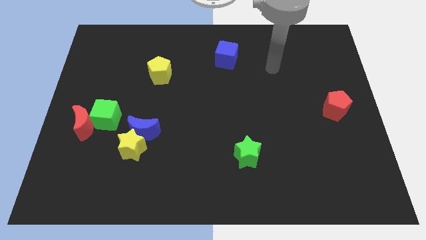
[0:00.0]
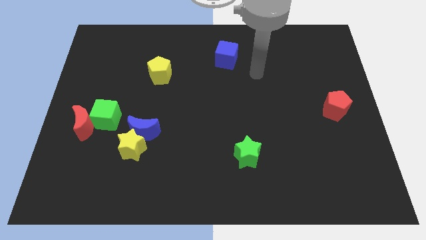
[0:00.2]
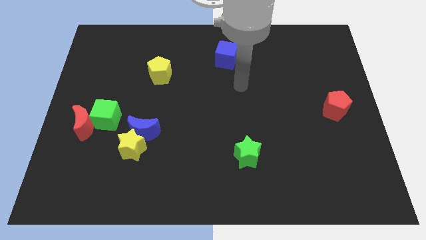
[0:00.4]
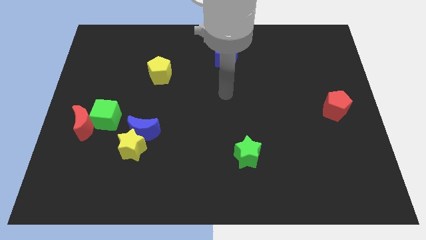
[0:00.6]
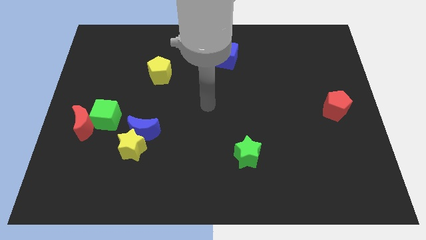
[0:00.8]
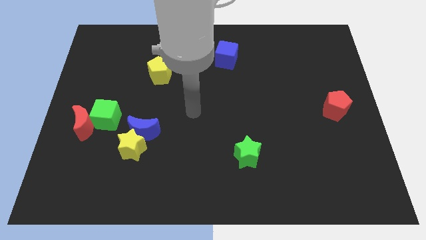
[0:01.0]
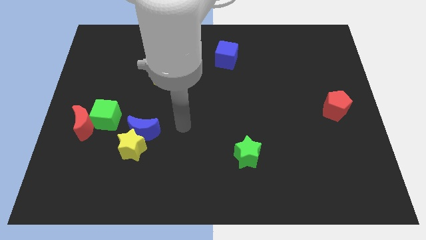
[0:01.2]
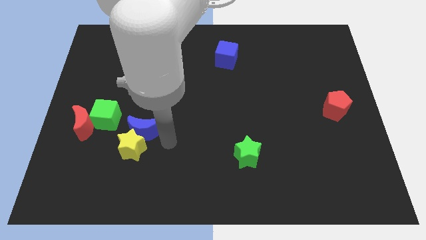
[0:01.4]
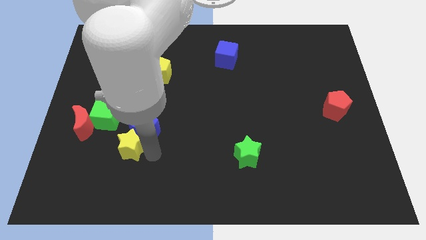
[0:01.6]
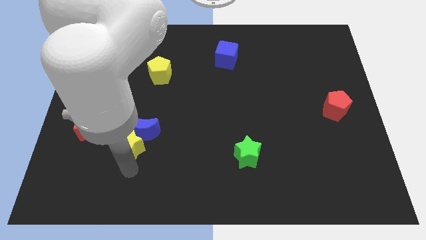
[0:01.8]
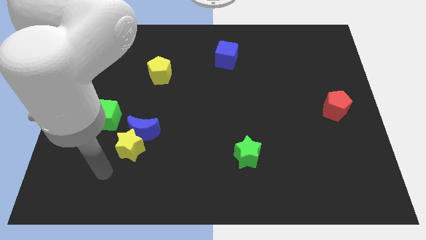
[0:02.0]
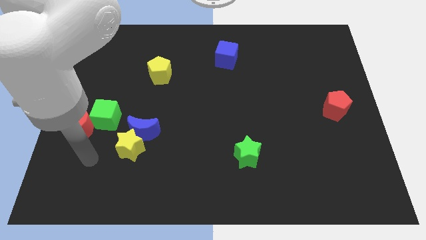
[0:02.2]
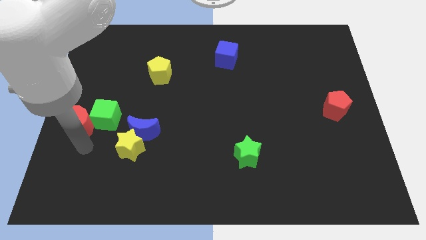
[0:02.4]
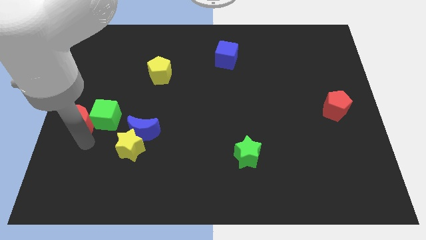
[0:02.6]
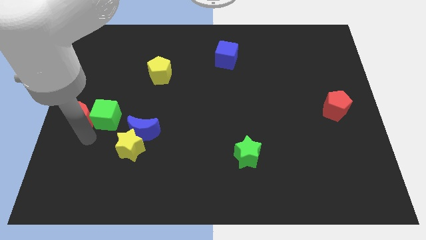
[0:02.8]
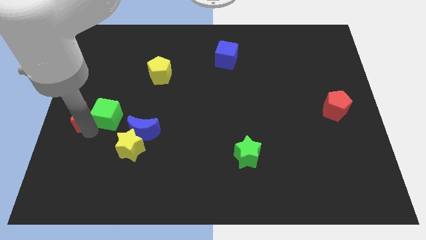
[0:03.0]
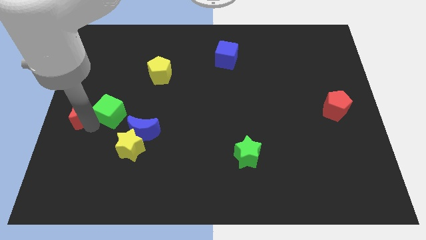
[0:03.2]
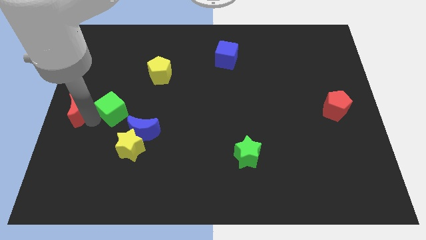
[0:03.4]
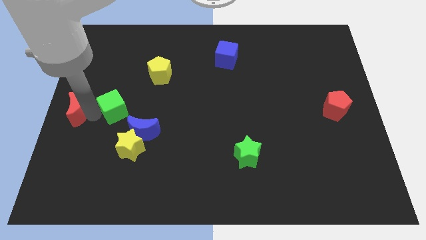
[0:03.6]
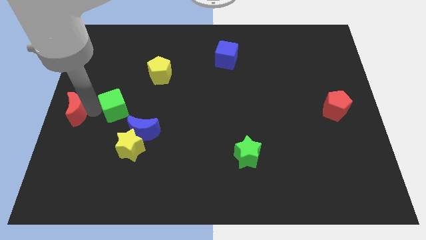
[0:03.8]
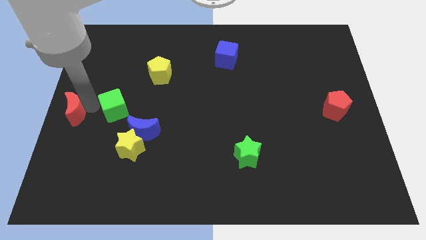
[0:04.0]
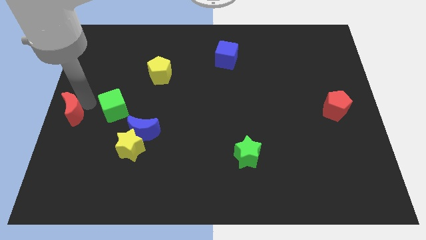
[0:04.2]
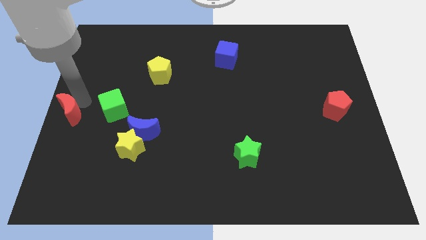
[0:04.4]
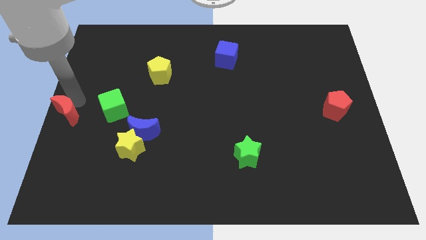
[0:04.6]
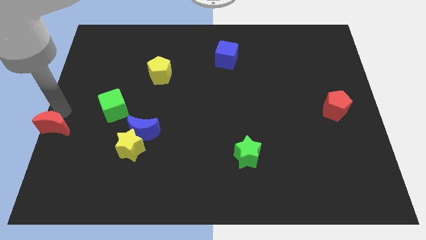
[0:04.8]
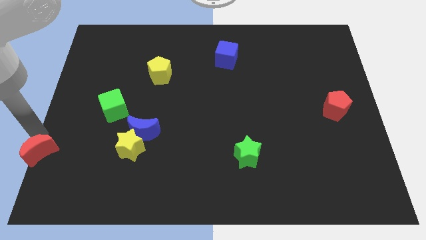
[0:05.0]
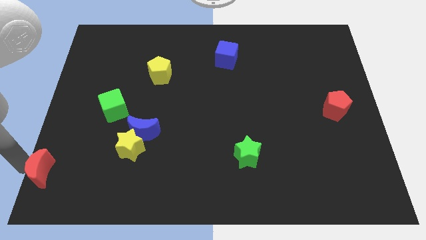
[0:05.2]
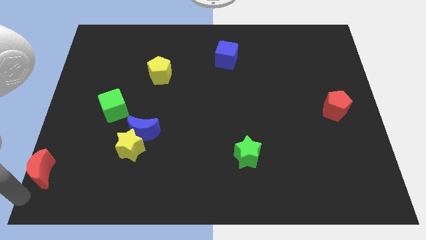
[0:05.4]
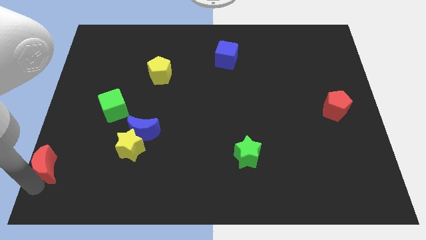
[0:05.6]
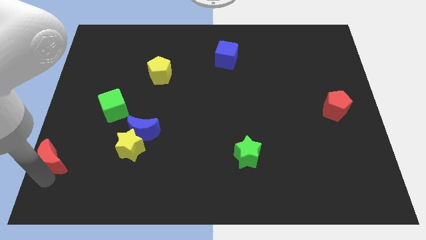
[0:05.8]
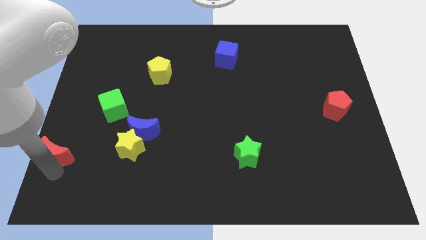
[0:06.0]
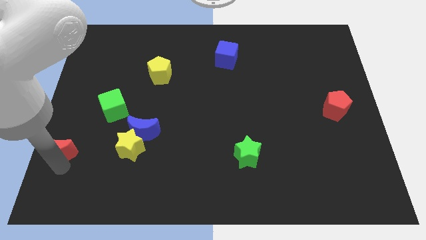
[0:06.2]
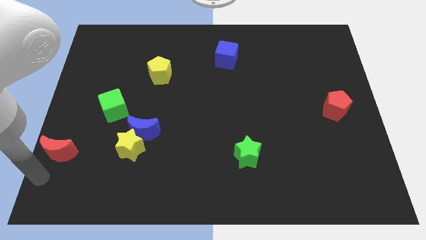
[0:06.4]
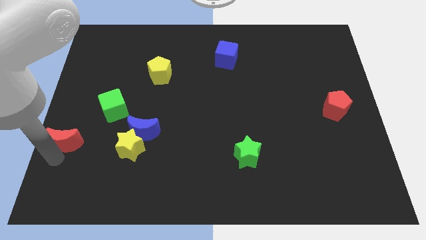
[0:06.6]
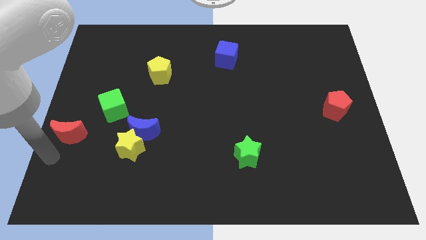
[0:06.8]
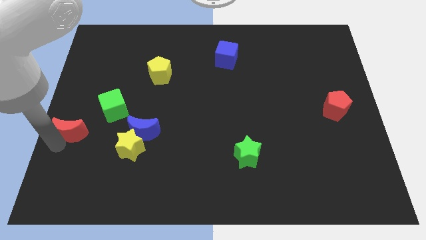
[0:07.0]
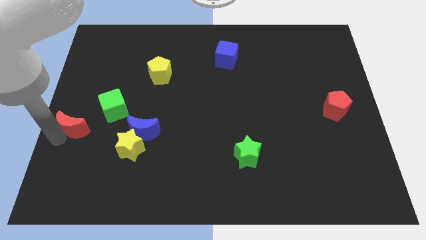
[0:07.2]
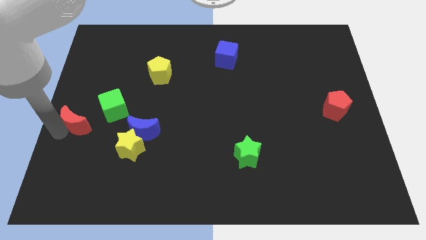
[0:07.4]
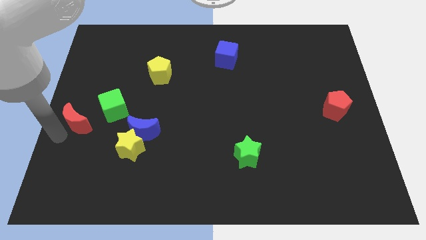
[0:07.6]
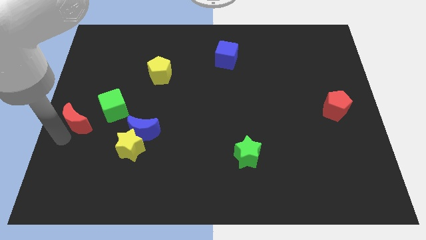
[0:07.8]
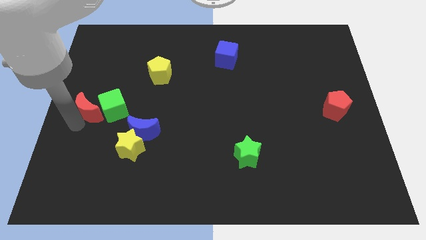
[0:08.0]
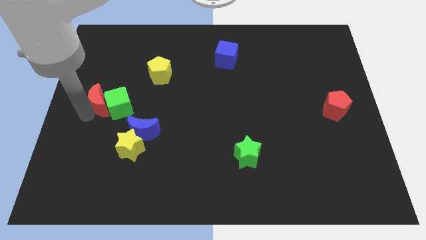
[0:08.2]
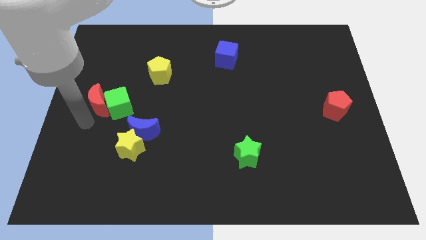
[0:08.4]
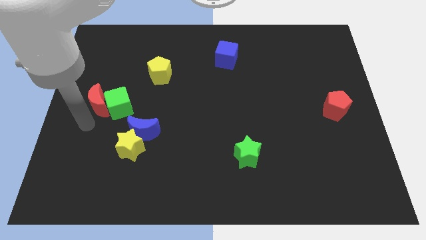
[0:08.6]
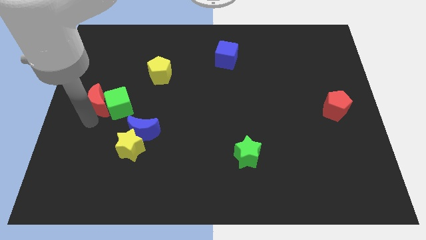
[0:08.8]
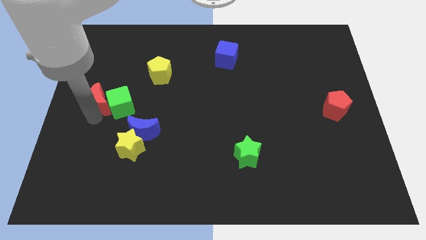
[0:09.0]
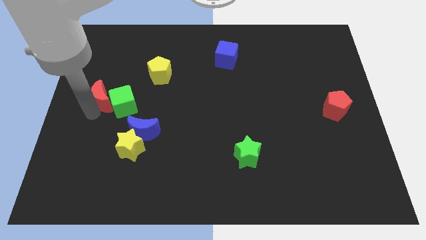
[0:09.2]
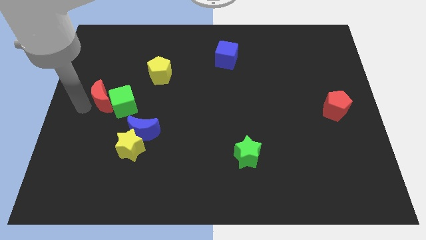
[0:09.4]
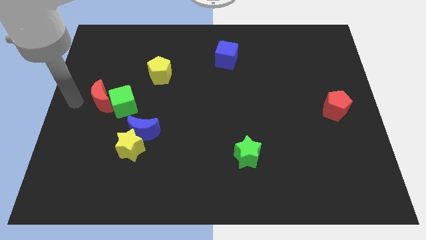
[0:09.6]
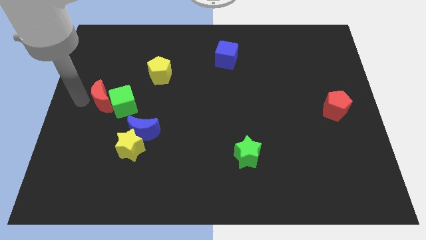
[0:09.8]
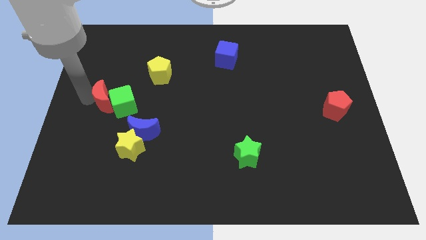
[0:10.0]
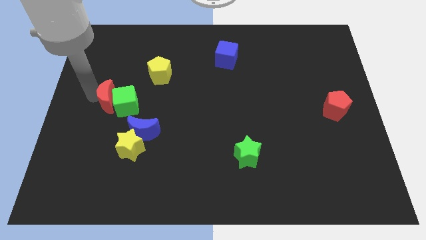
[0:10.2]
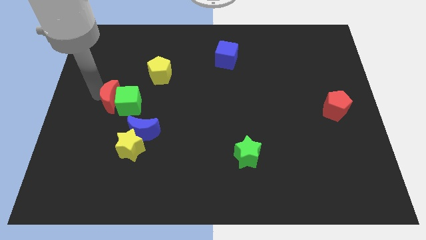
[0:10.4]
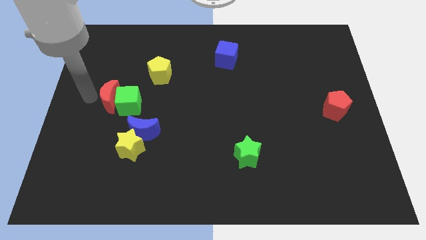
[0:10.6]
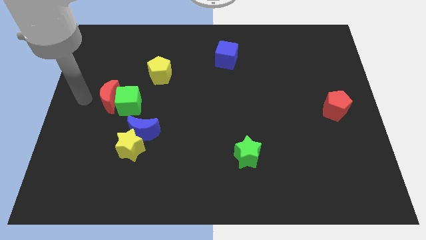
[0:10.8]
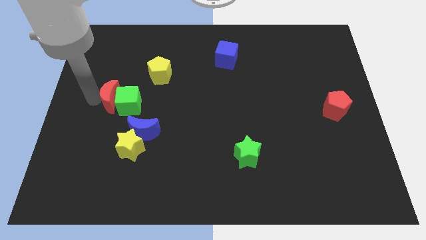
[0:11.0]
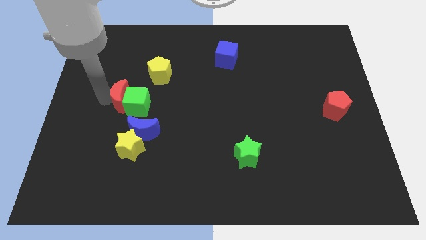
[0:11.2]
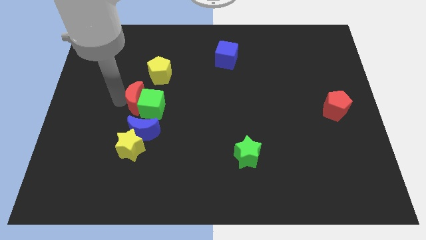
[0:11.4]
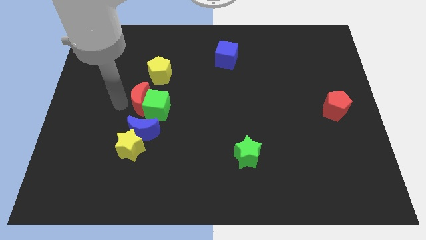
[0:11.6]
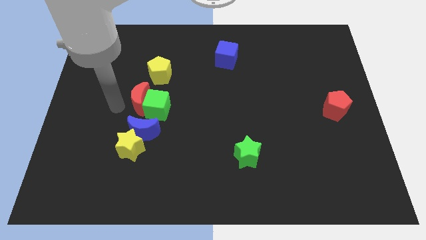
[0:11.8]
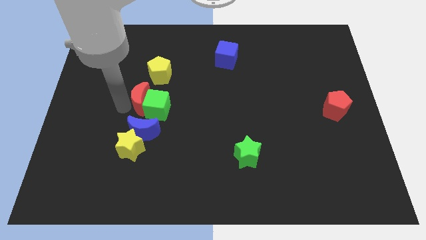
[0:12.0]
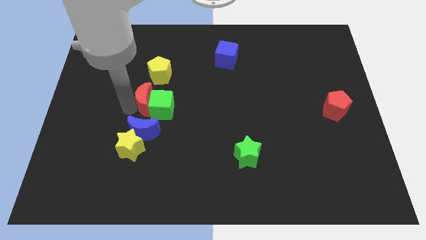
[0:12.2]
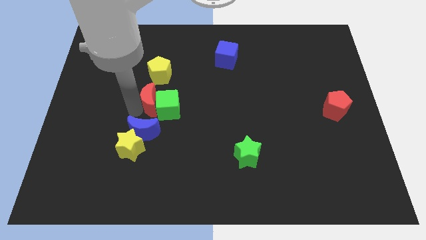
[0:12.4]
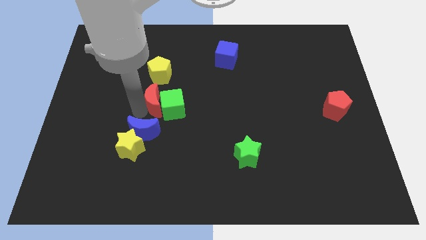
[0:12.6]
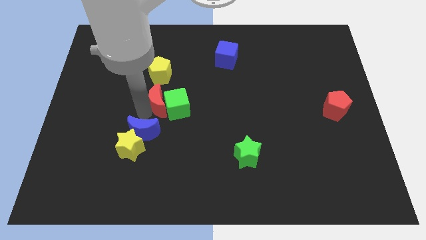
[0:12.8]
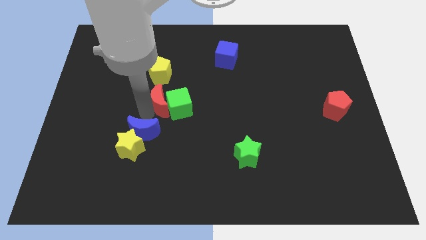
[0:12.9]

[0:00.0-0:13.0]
push the red moon to the center
